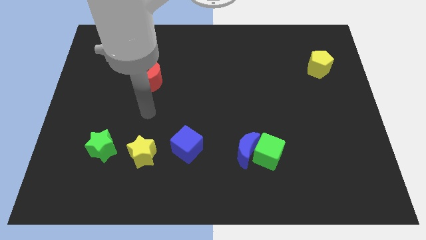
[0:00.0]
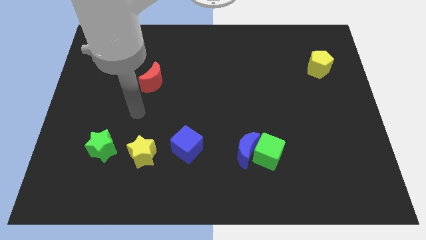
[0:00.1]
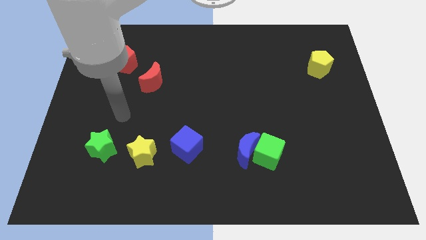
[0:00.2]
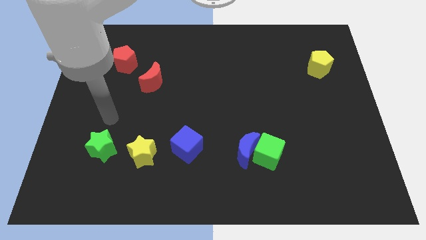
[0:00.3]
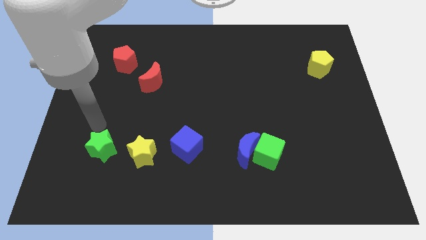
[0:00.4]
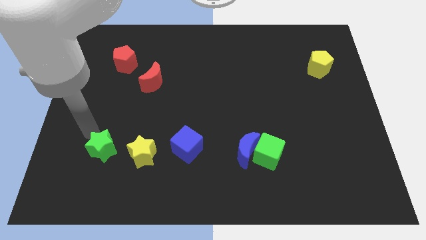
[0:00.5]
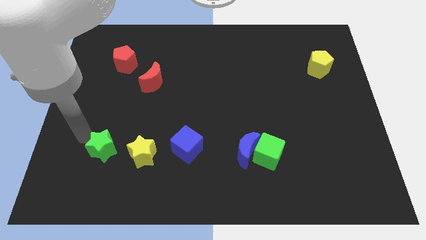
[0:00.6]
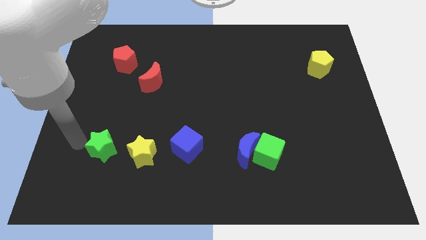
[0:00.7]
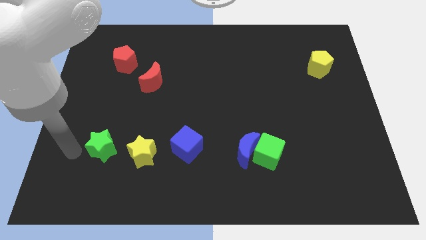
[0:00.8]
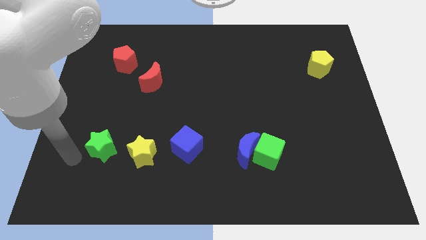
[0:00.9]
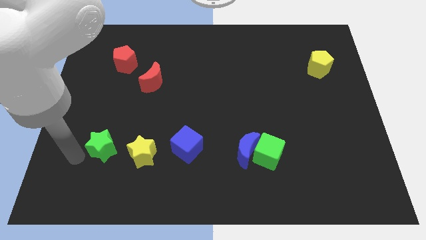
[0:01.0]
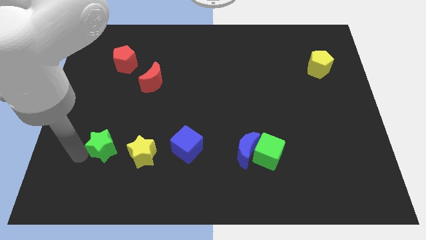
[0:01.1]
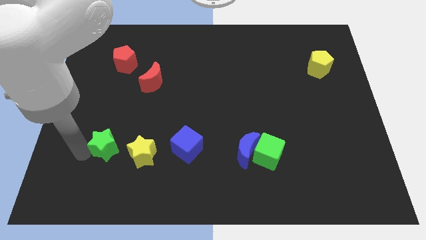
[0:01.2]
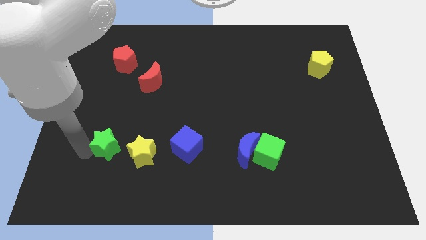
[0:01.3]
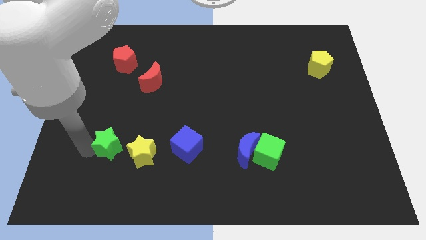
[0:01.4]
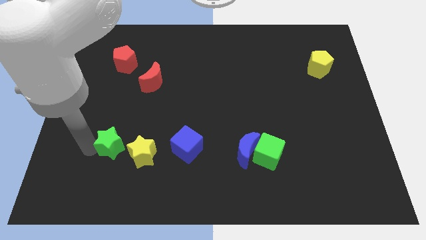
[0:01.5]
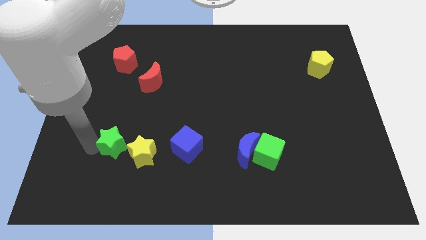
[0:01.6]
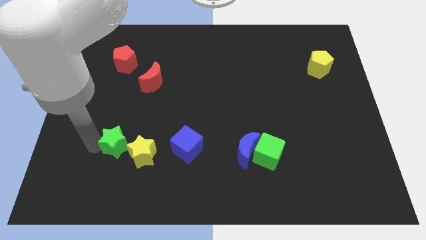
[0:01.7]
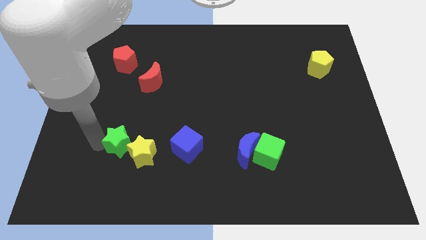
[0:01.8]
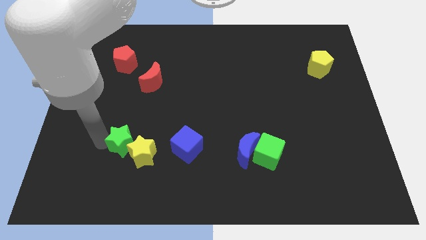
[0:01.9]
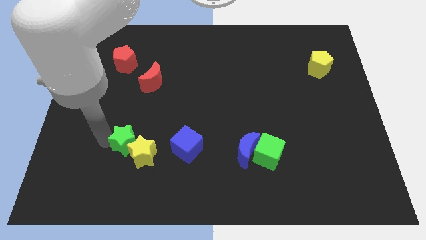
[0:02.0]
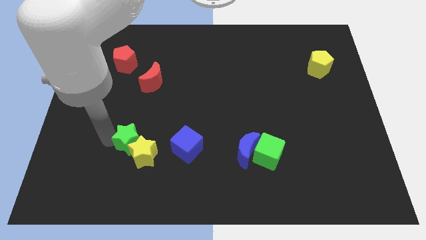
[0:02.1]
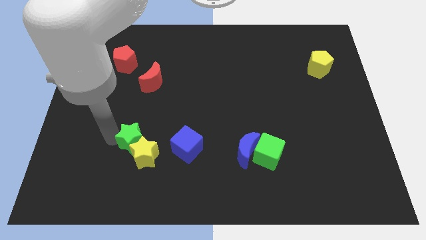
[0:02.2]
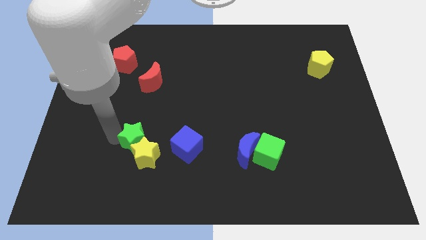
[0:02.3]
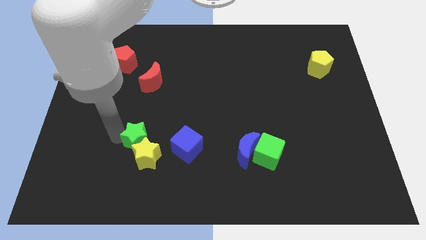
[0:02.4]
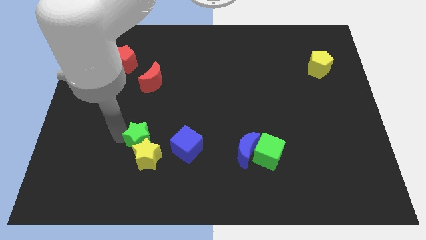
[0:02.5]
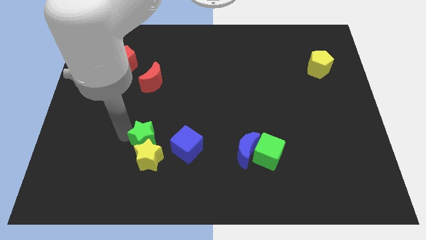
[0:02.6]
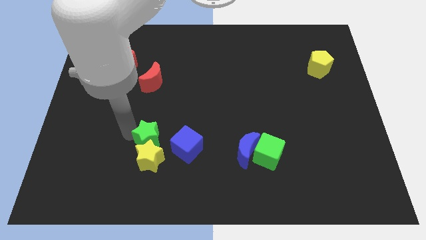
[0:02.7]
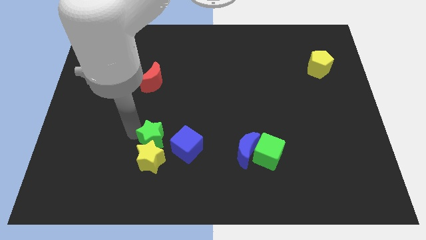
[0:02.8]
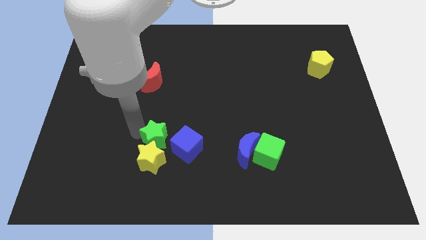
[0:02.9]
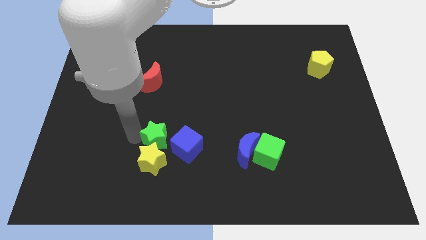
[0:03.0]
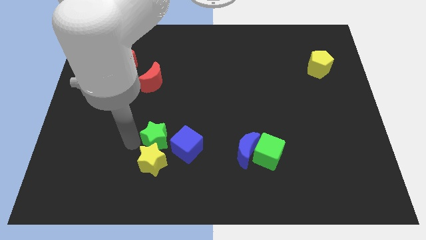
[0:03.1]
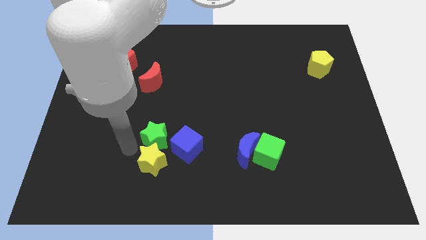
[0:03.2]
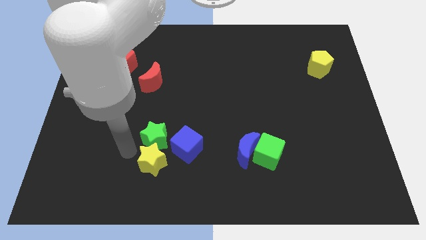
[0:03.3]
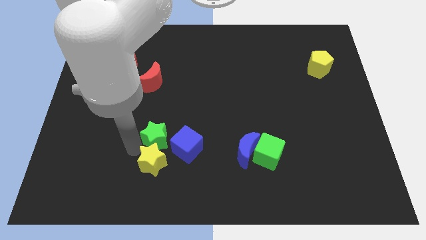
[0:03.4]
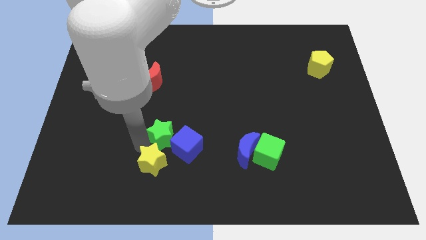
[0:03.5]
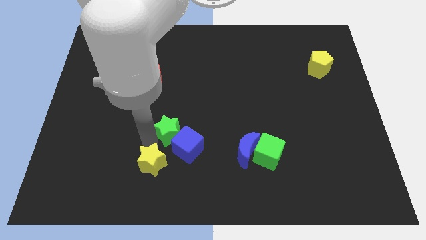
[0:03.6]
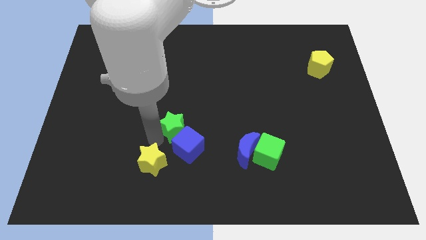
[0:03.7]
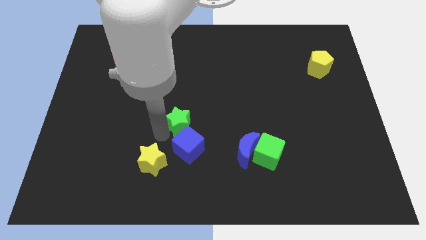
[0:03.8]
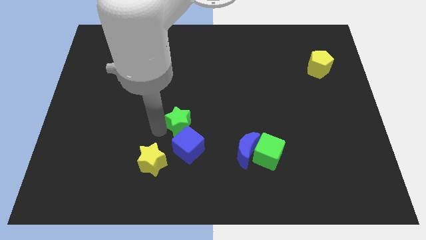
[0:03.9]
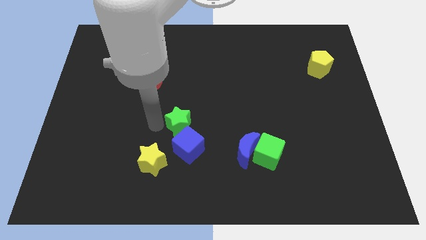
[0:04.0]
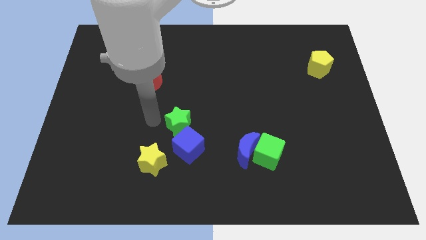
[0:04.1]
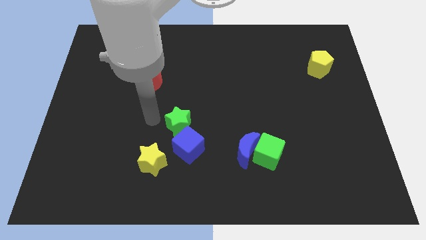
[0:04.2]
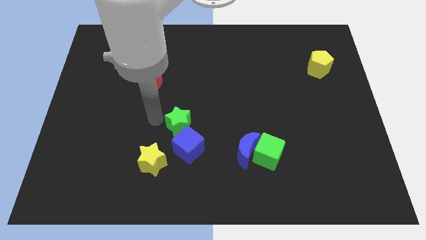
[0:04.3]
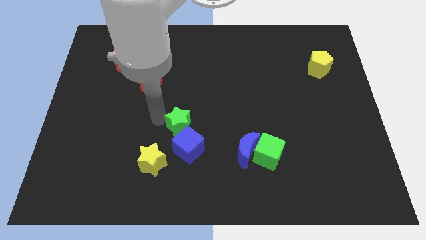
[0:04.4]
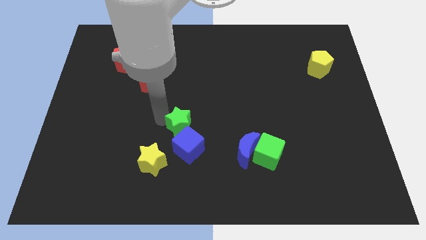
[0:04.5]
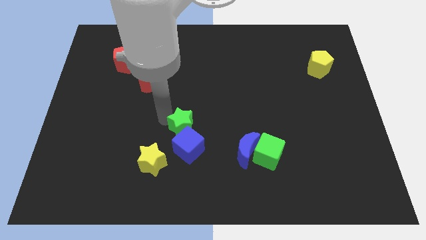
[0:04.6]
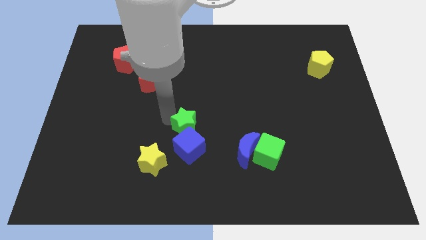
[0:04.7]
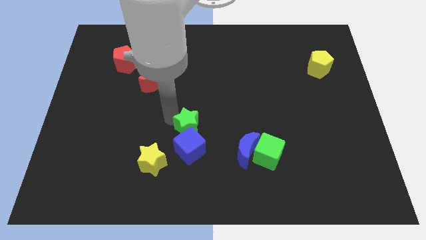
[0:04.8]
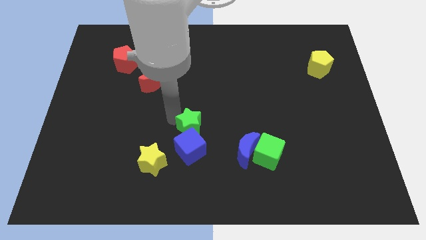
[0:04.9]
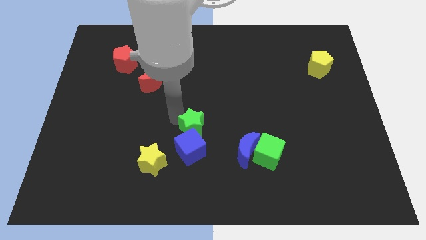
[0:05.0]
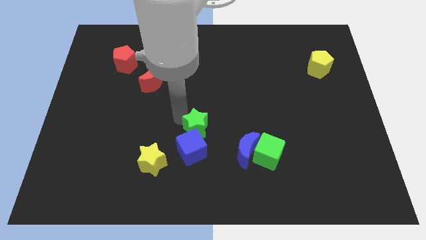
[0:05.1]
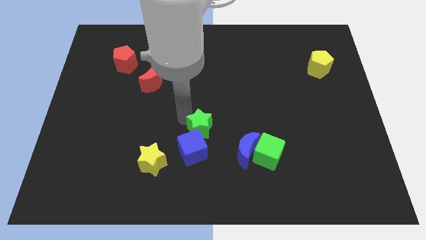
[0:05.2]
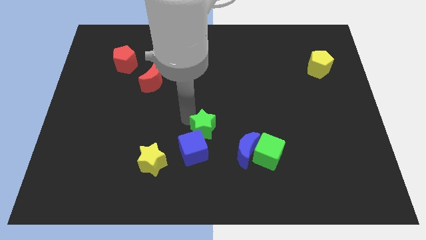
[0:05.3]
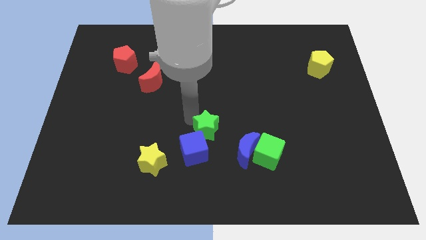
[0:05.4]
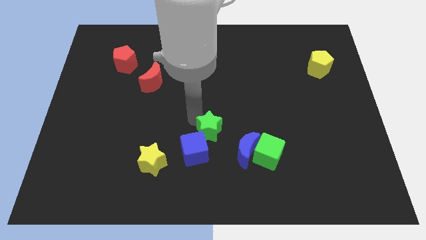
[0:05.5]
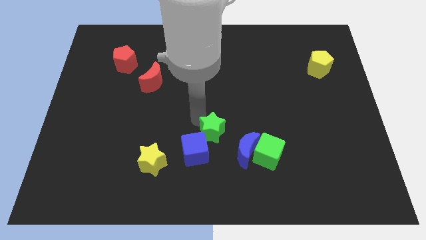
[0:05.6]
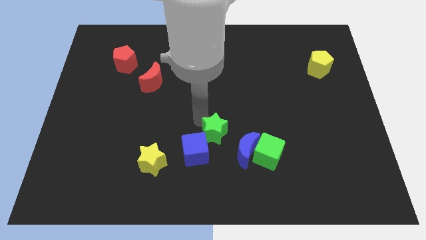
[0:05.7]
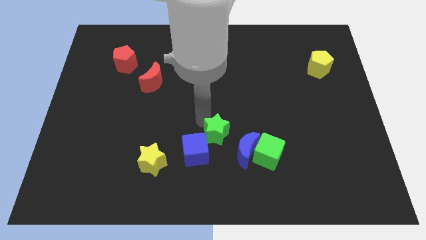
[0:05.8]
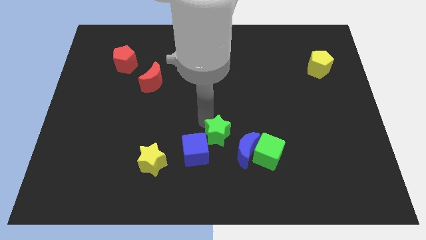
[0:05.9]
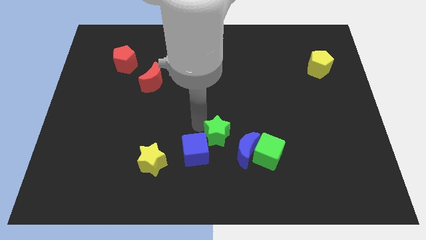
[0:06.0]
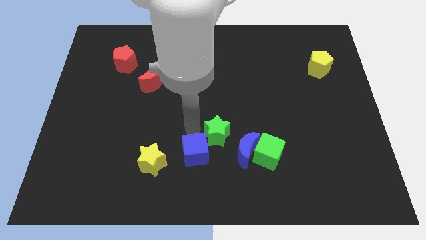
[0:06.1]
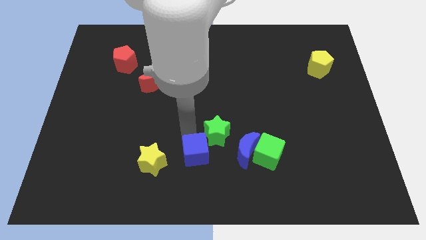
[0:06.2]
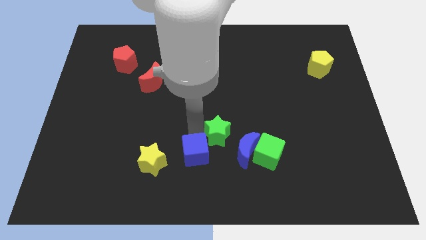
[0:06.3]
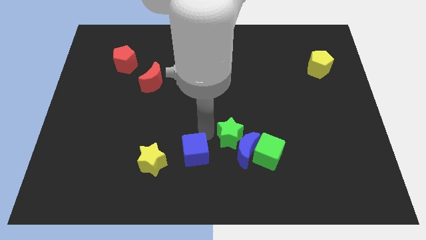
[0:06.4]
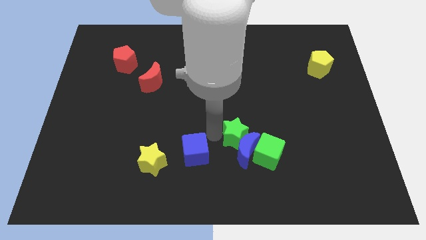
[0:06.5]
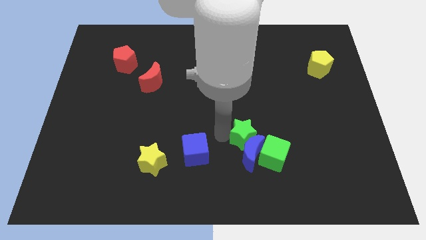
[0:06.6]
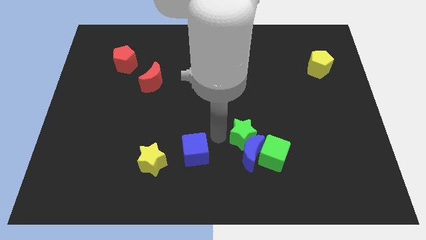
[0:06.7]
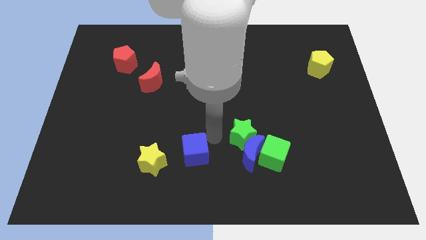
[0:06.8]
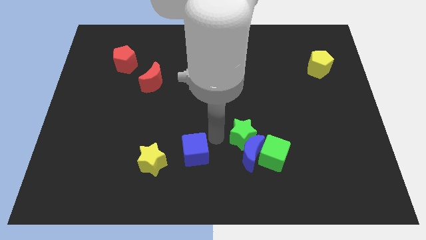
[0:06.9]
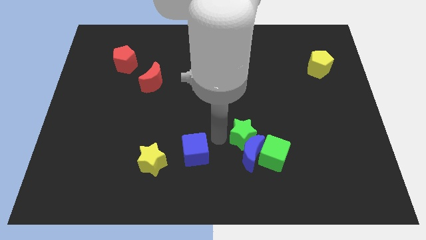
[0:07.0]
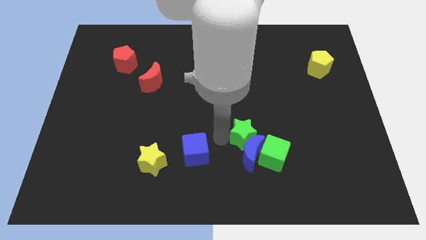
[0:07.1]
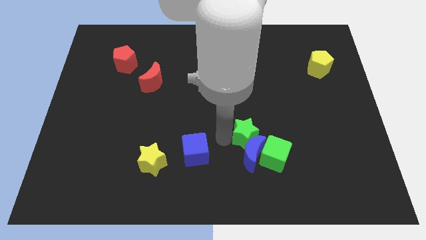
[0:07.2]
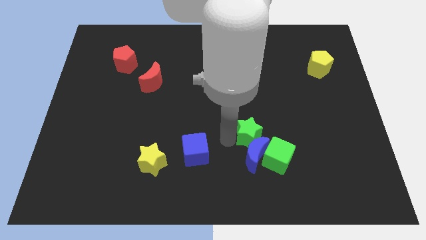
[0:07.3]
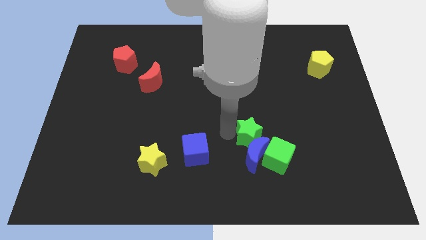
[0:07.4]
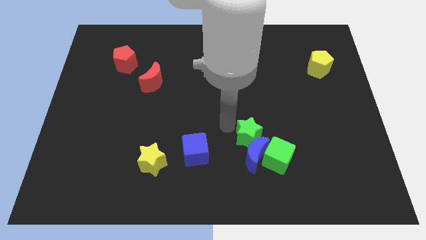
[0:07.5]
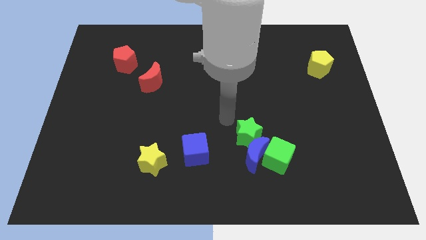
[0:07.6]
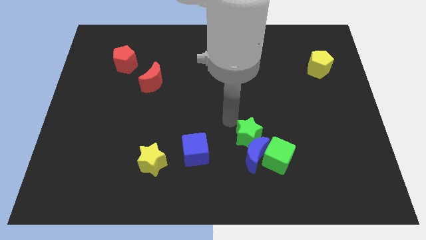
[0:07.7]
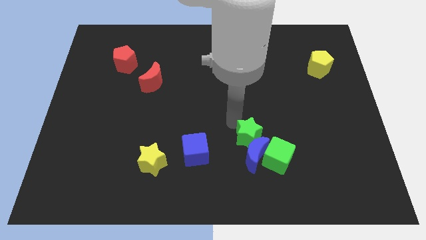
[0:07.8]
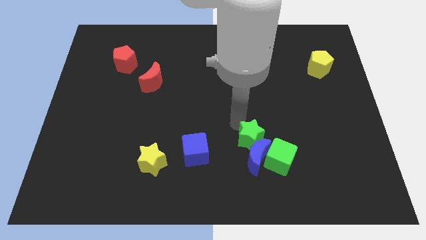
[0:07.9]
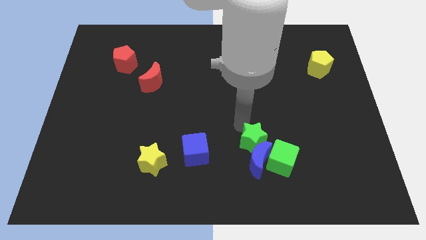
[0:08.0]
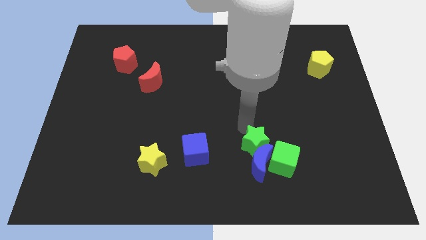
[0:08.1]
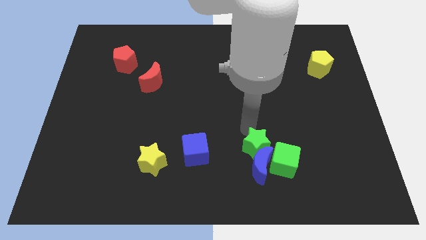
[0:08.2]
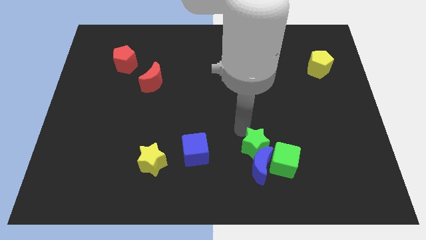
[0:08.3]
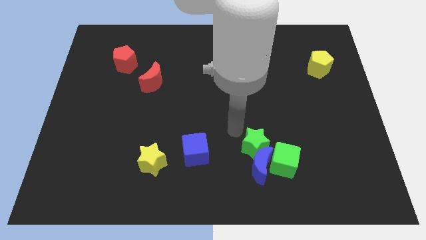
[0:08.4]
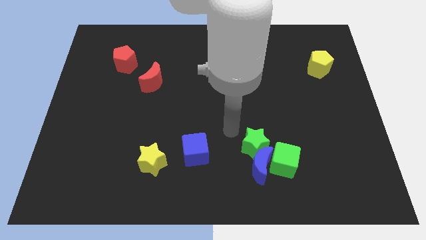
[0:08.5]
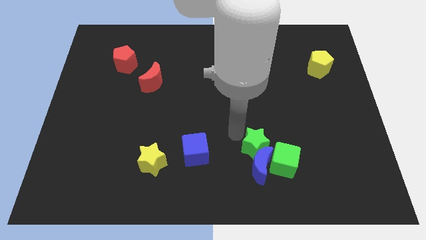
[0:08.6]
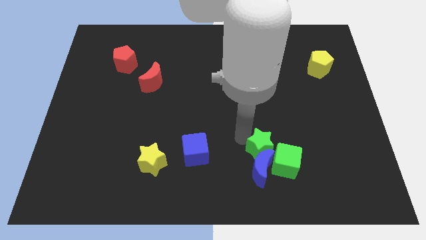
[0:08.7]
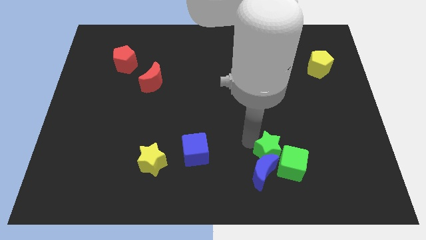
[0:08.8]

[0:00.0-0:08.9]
slide the green star close to the green cube
